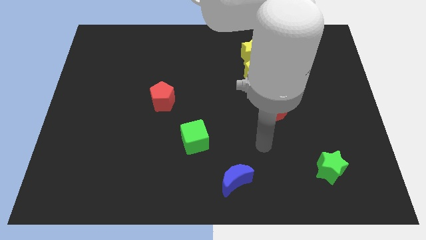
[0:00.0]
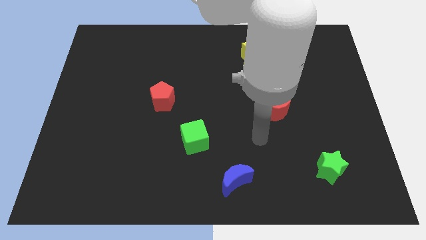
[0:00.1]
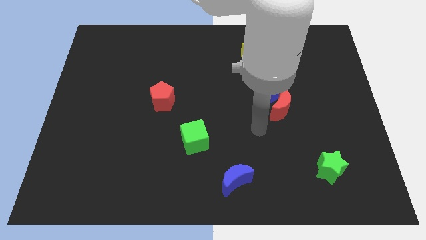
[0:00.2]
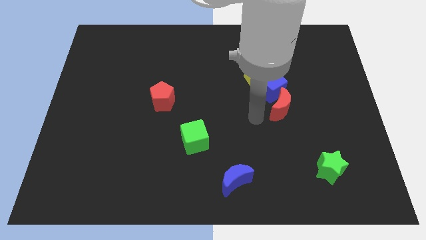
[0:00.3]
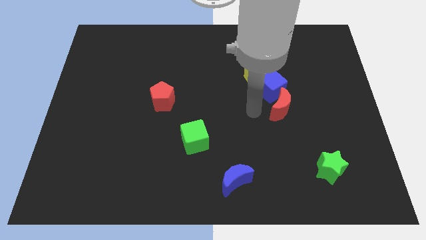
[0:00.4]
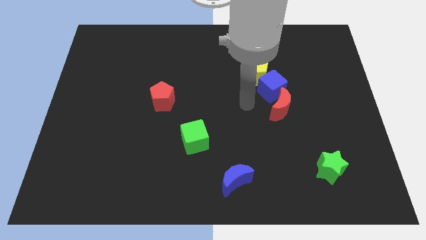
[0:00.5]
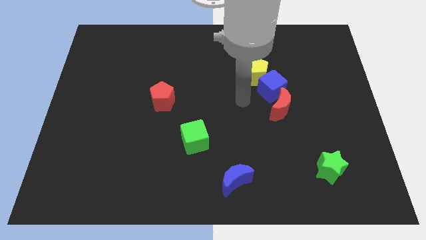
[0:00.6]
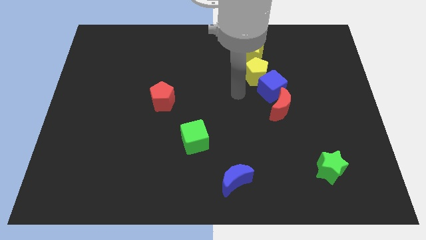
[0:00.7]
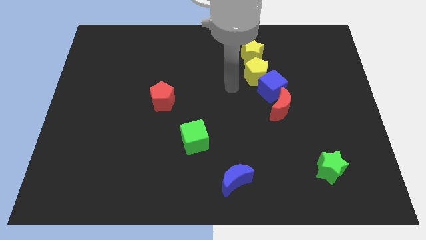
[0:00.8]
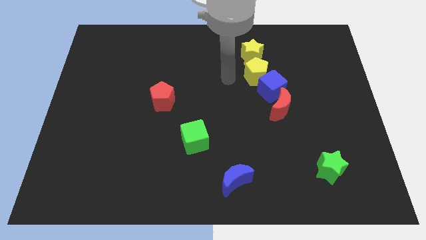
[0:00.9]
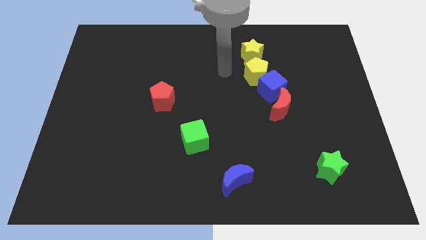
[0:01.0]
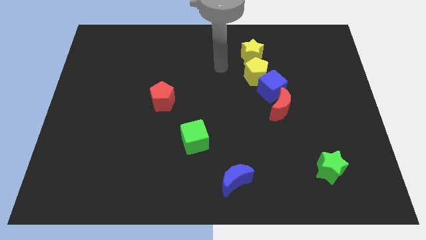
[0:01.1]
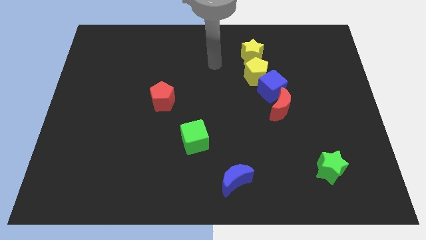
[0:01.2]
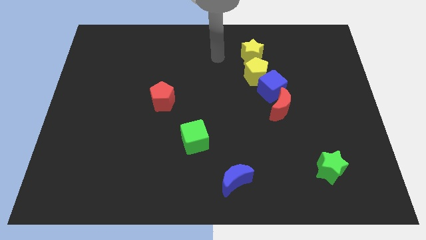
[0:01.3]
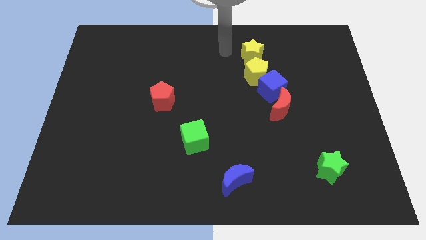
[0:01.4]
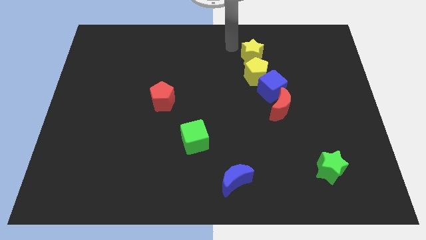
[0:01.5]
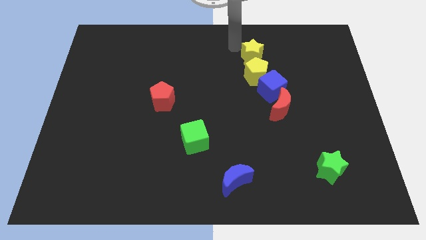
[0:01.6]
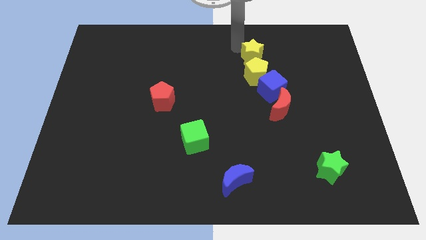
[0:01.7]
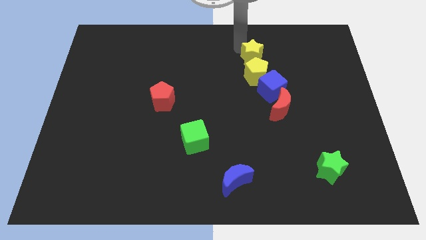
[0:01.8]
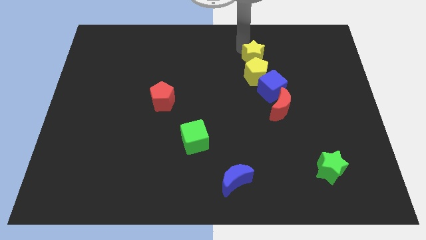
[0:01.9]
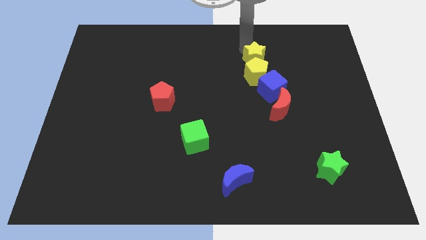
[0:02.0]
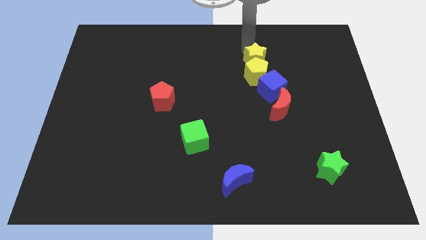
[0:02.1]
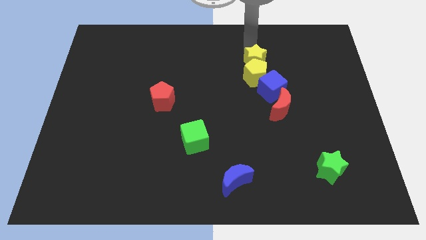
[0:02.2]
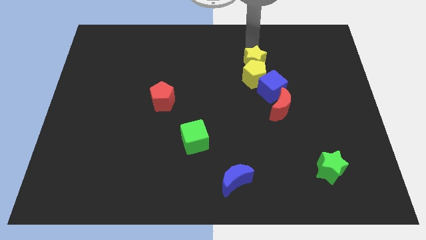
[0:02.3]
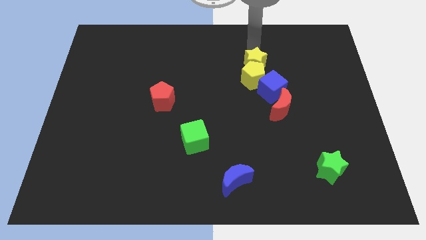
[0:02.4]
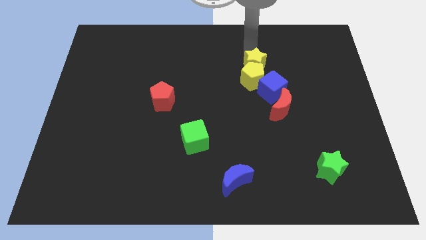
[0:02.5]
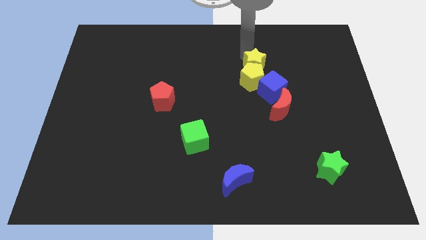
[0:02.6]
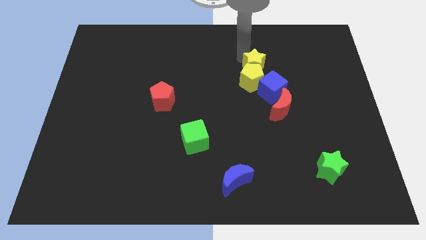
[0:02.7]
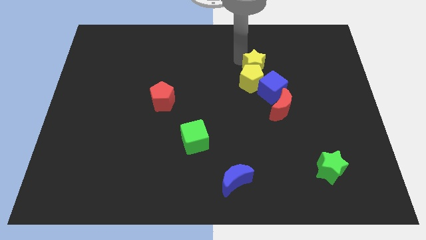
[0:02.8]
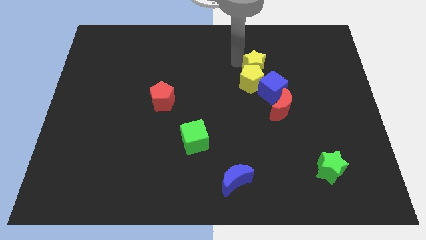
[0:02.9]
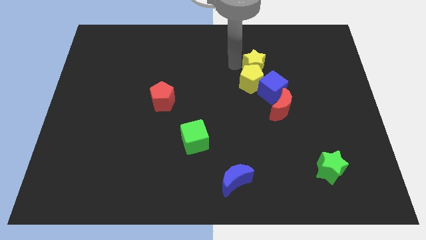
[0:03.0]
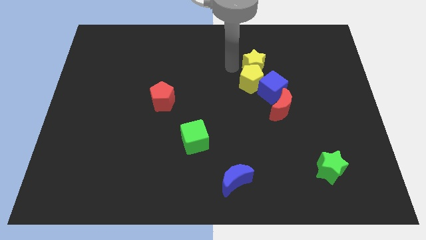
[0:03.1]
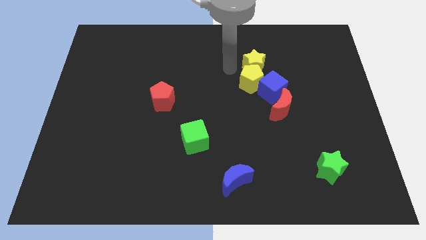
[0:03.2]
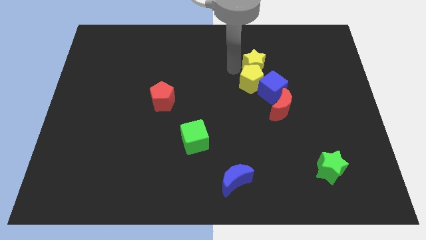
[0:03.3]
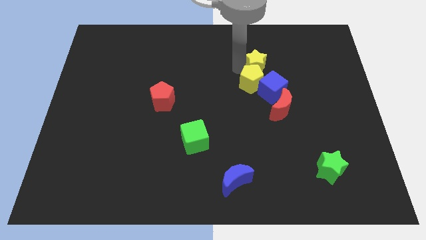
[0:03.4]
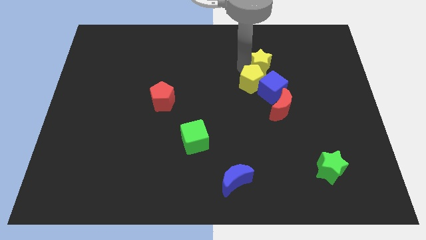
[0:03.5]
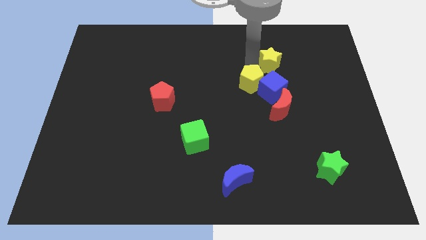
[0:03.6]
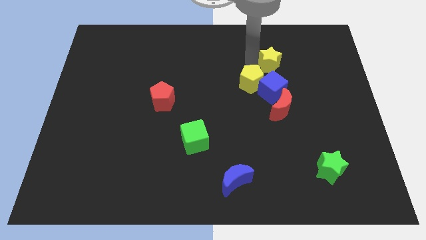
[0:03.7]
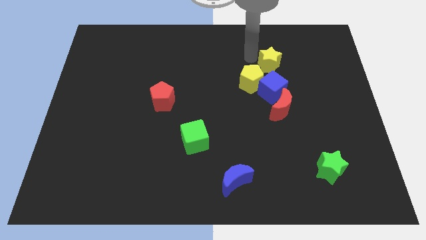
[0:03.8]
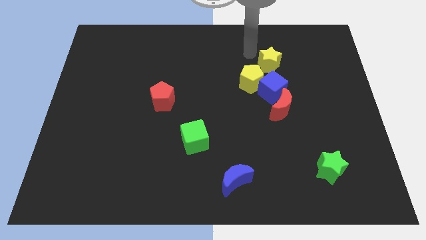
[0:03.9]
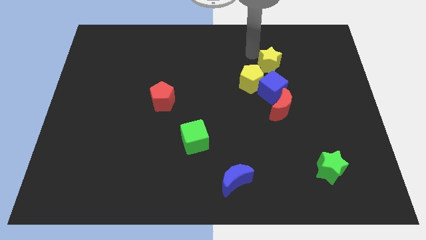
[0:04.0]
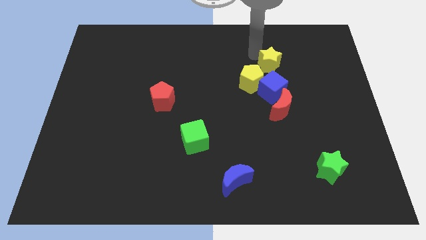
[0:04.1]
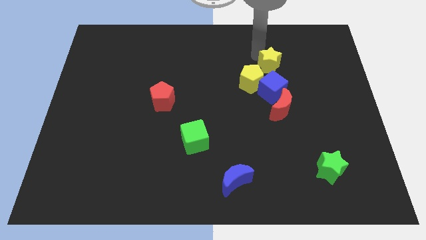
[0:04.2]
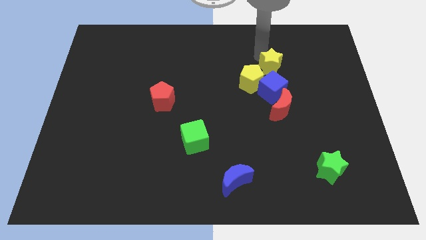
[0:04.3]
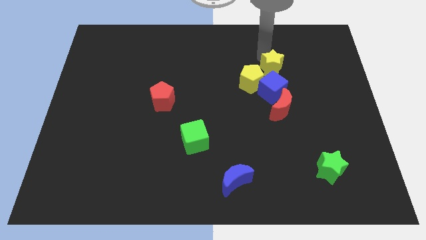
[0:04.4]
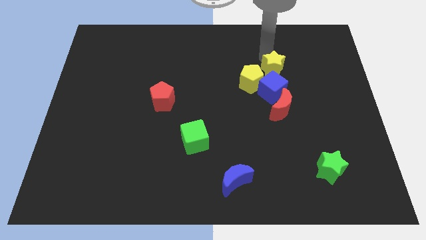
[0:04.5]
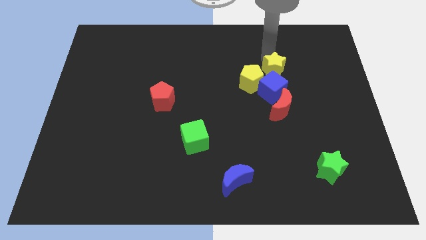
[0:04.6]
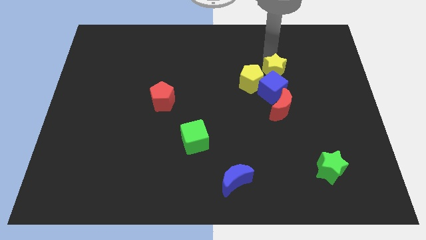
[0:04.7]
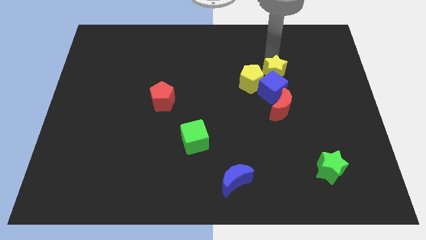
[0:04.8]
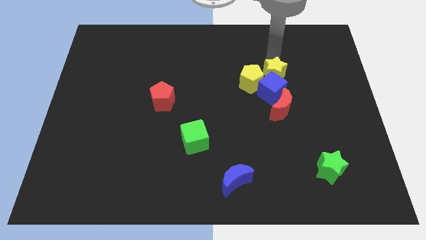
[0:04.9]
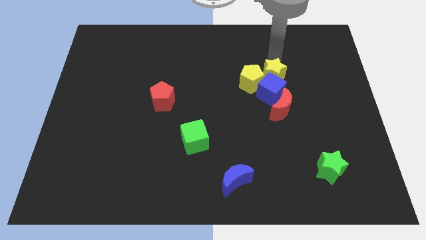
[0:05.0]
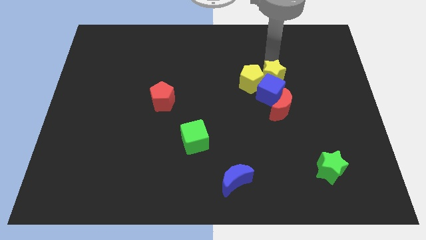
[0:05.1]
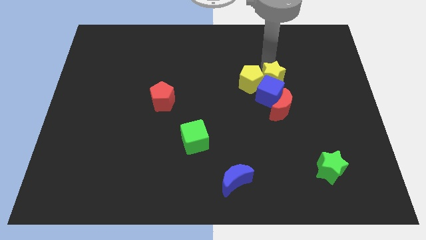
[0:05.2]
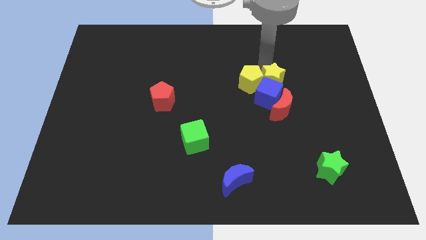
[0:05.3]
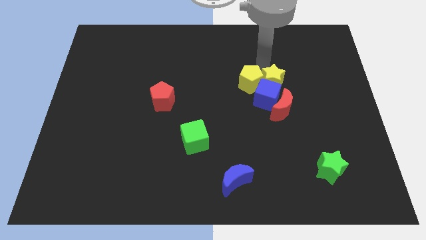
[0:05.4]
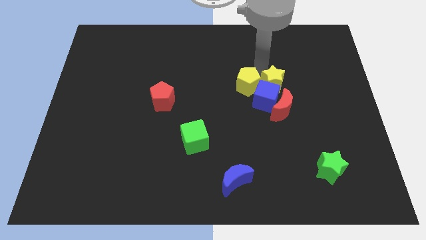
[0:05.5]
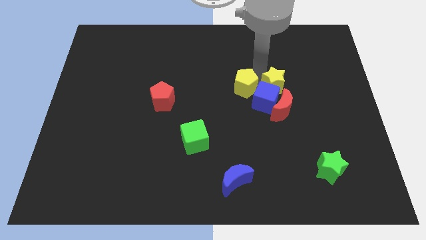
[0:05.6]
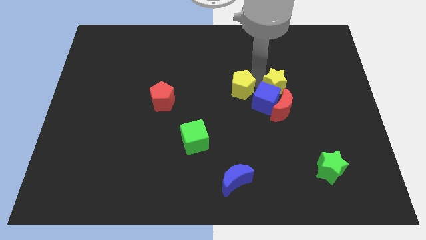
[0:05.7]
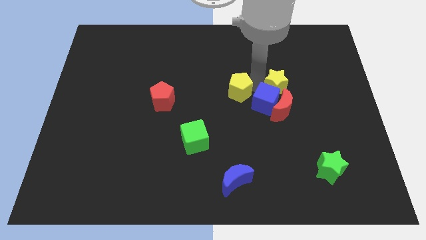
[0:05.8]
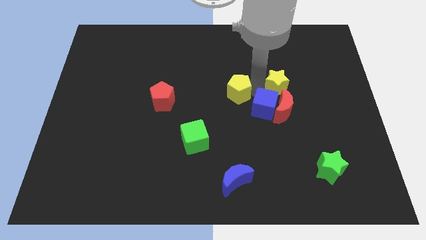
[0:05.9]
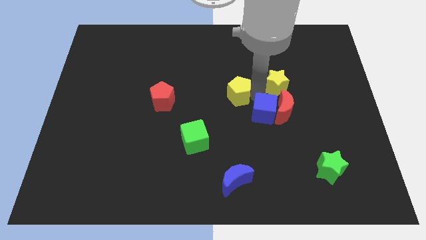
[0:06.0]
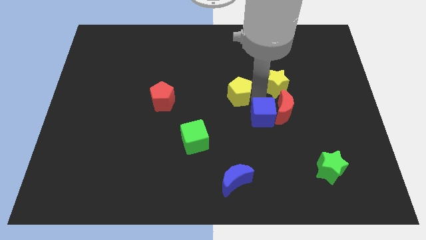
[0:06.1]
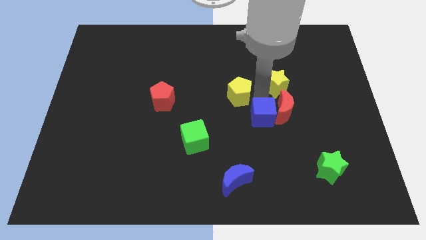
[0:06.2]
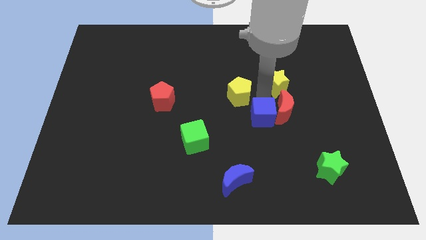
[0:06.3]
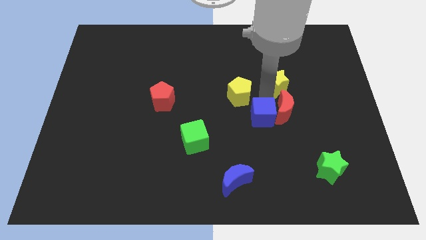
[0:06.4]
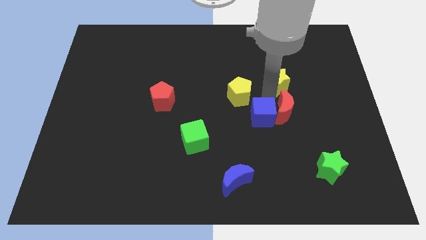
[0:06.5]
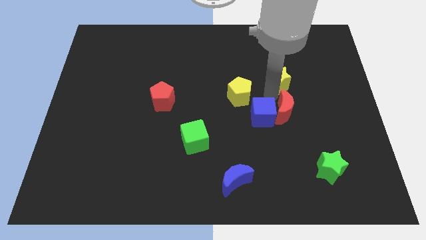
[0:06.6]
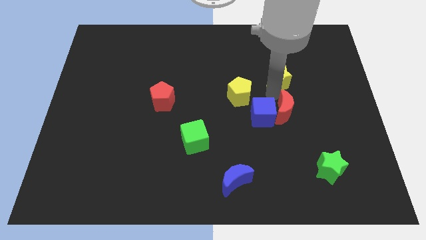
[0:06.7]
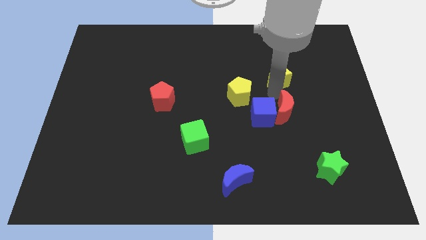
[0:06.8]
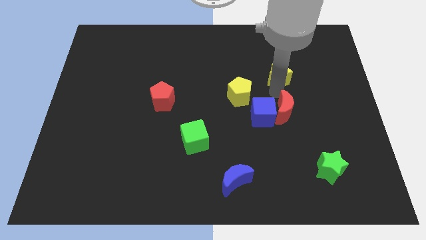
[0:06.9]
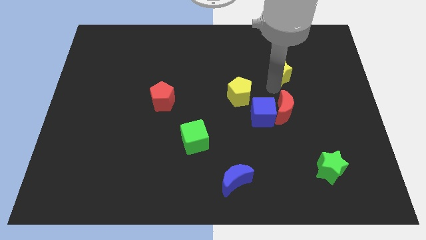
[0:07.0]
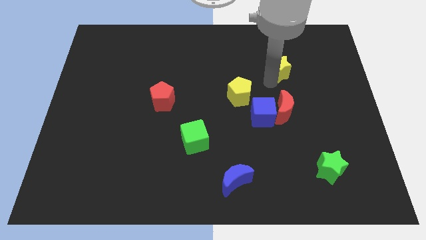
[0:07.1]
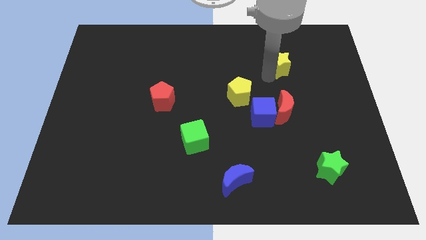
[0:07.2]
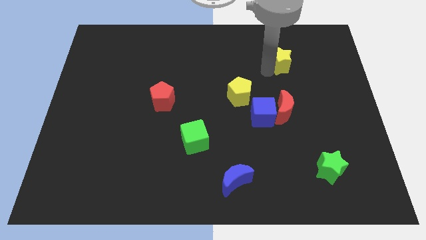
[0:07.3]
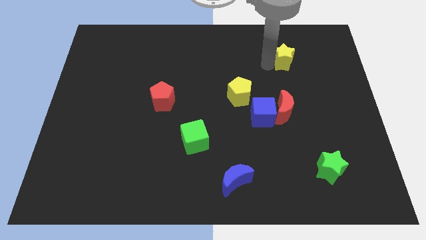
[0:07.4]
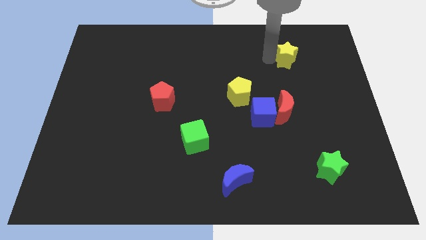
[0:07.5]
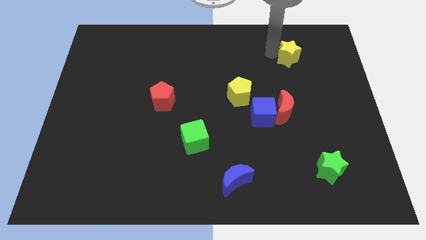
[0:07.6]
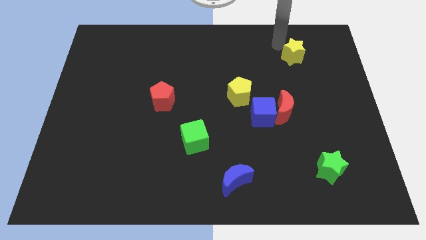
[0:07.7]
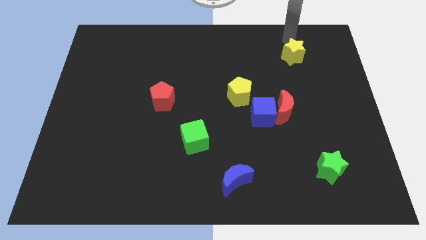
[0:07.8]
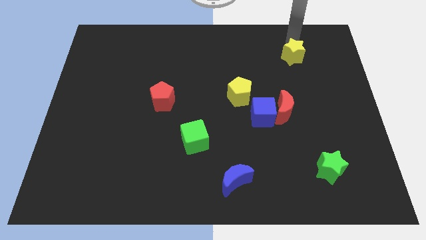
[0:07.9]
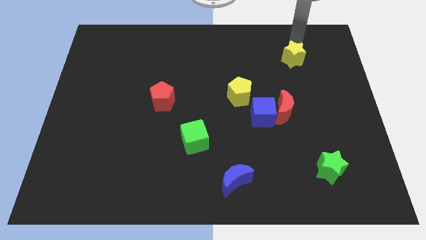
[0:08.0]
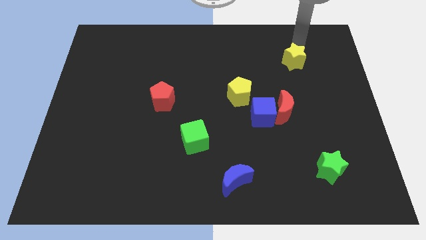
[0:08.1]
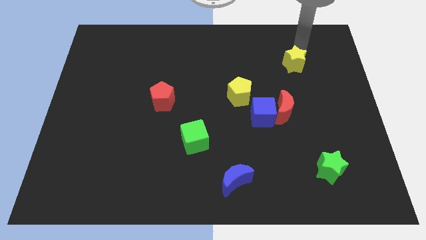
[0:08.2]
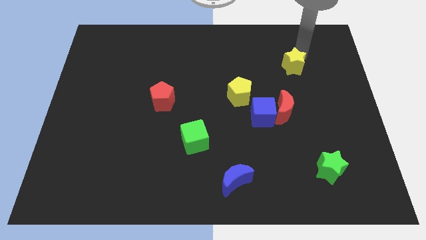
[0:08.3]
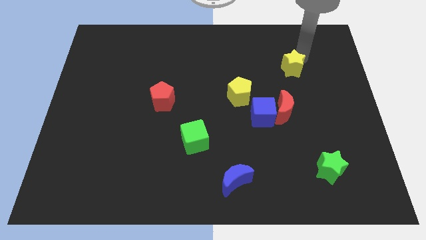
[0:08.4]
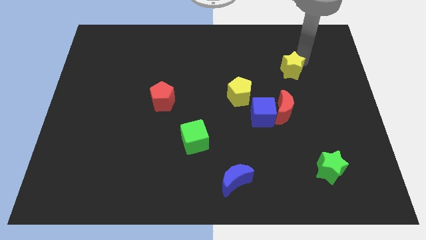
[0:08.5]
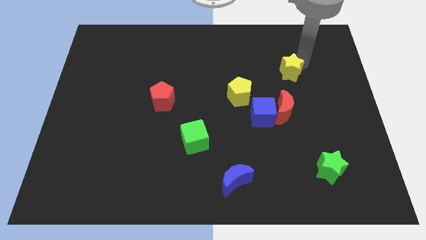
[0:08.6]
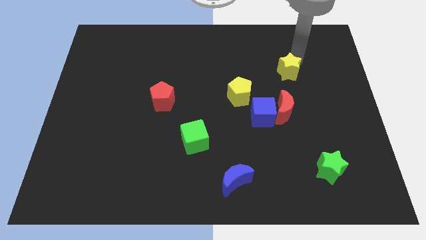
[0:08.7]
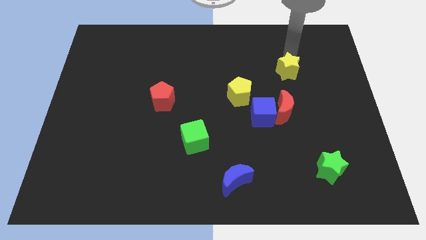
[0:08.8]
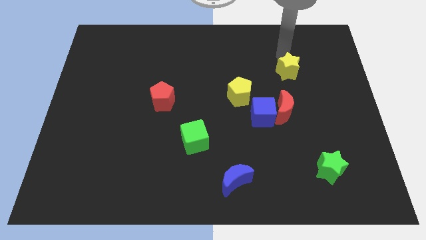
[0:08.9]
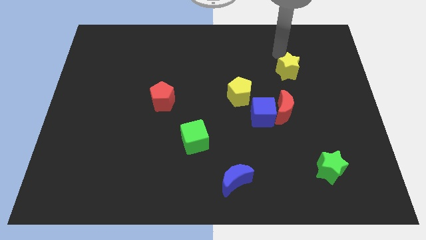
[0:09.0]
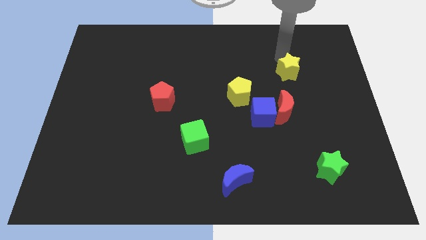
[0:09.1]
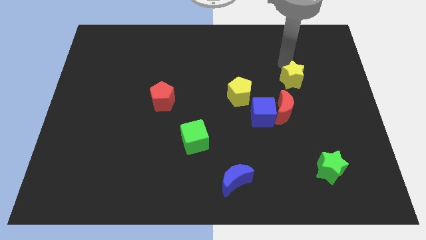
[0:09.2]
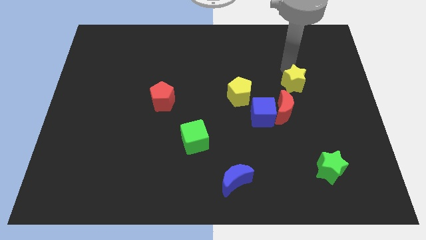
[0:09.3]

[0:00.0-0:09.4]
push the yellow star to the top right side of the red moon
